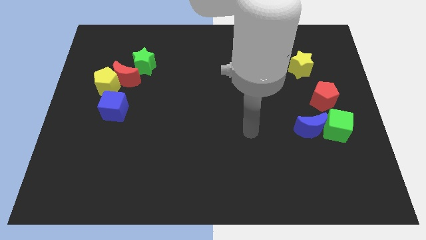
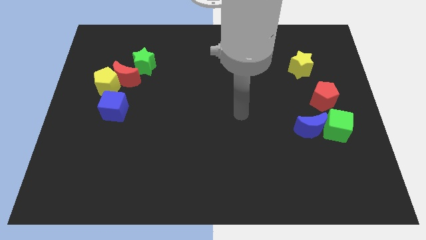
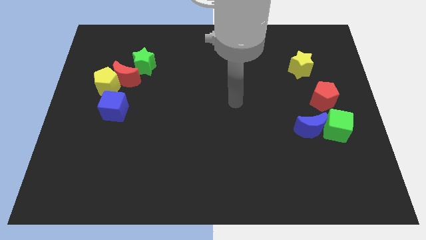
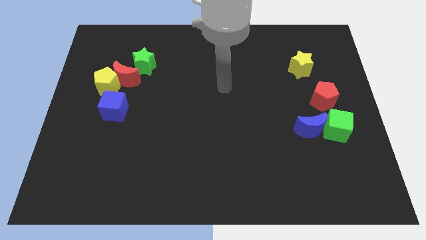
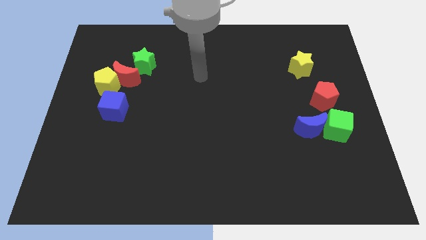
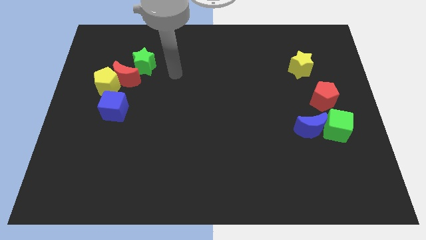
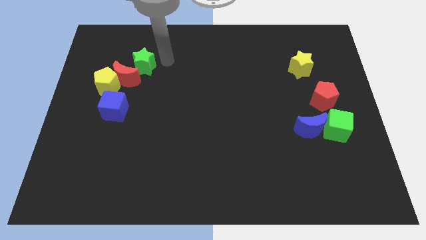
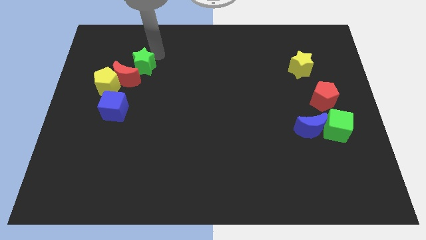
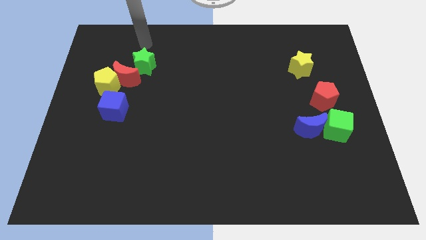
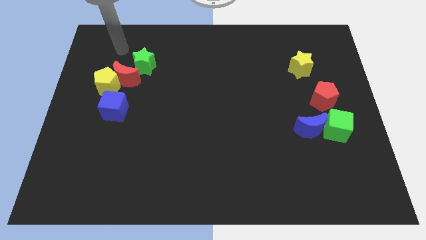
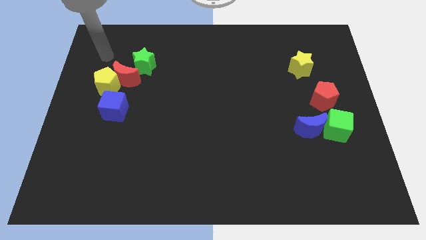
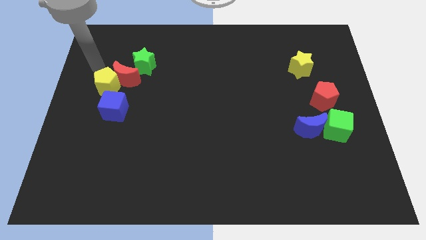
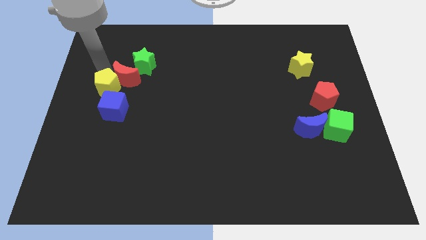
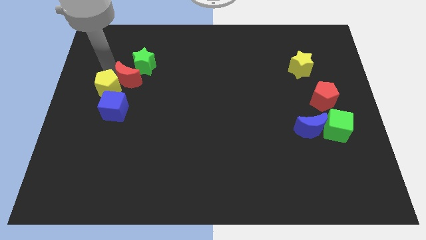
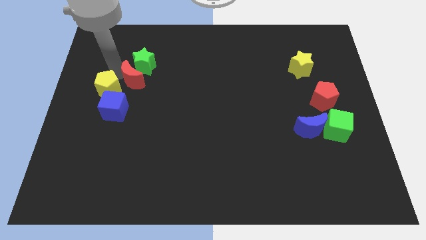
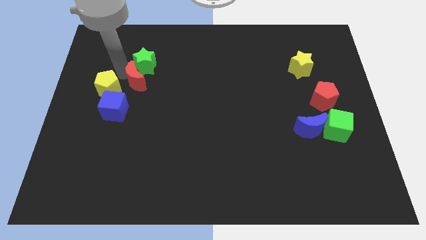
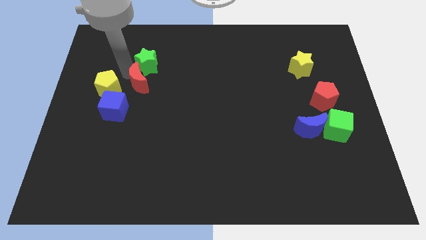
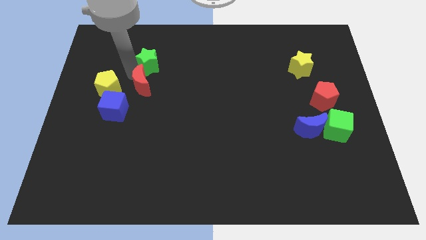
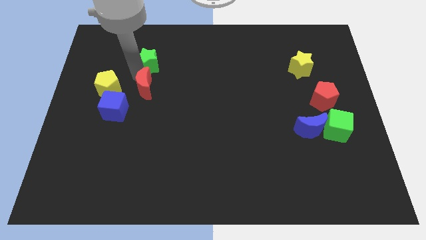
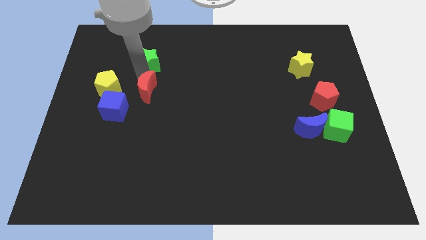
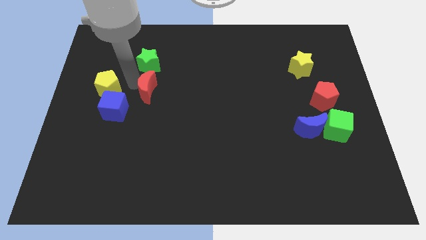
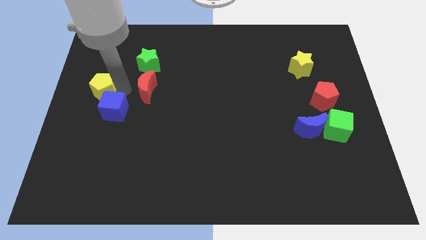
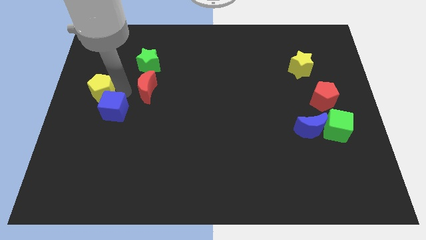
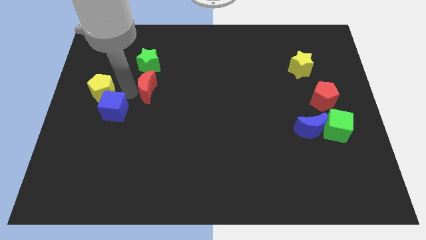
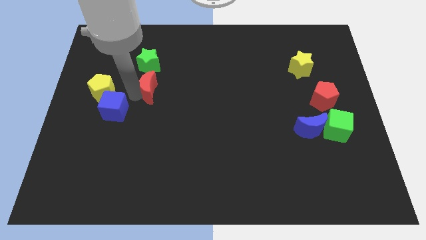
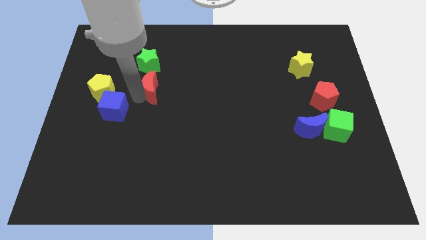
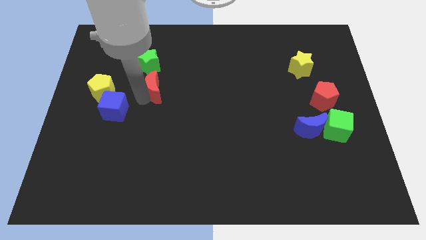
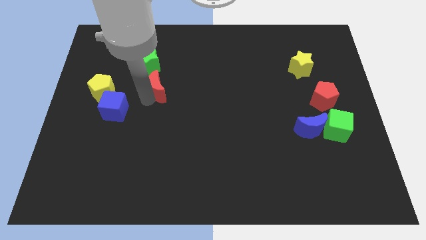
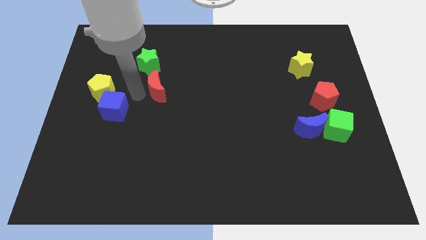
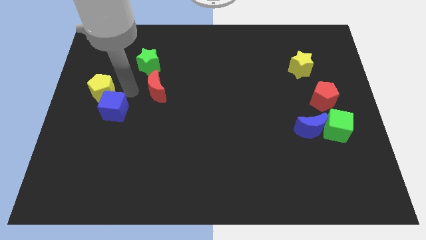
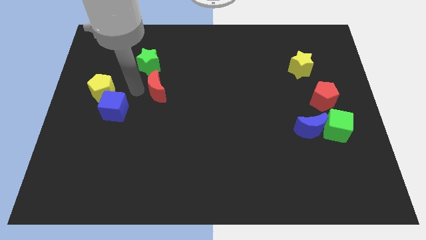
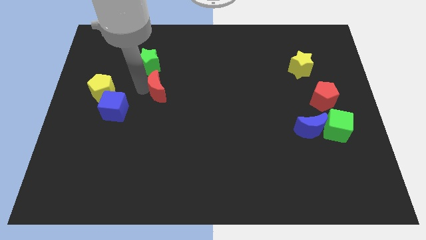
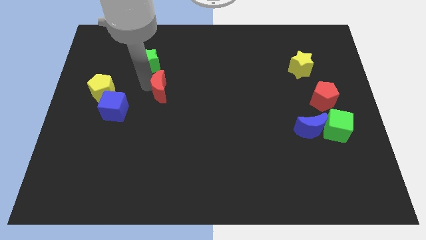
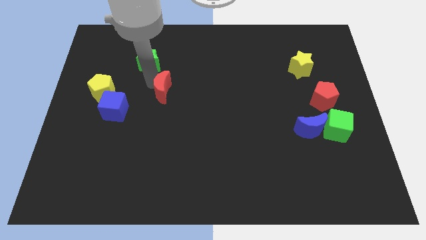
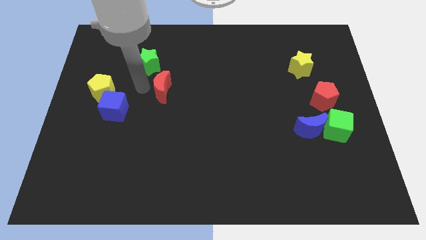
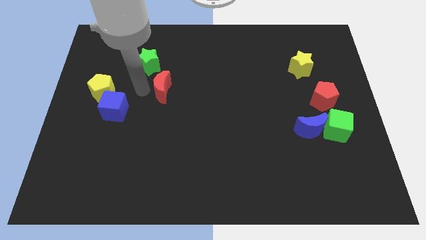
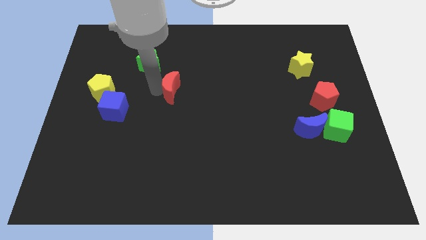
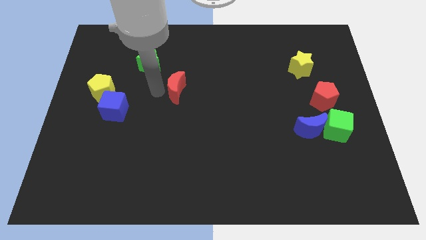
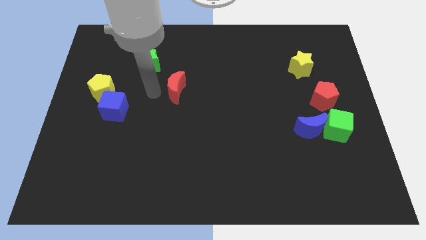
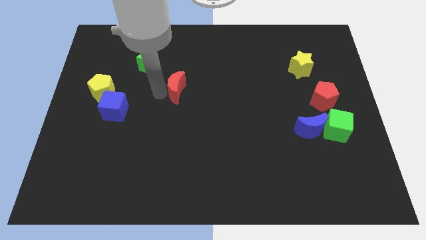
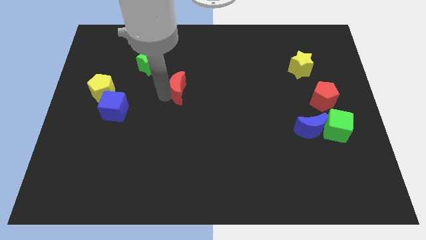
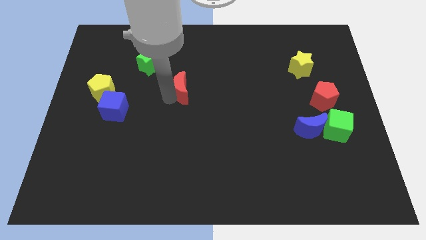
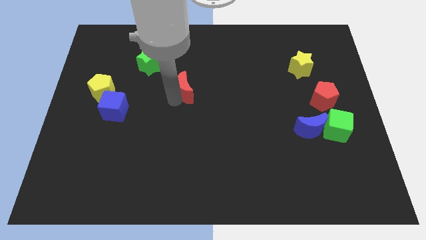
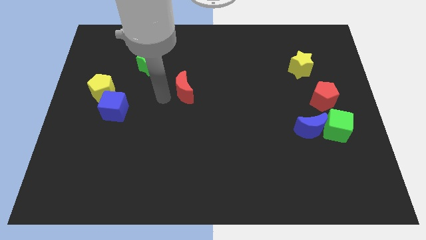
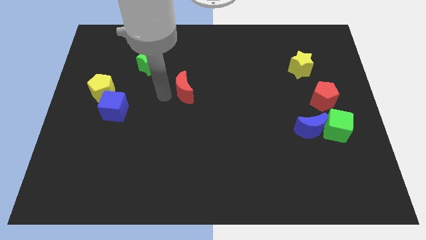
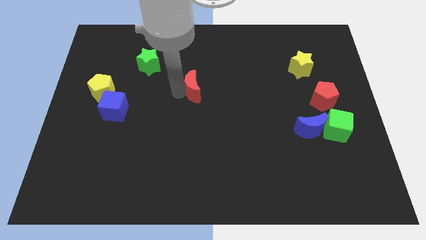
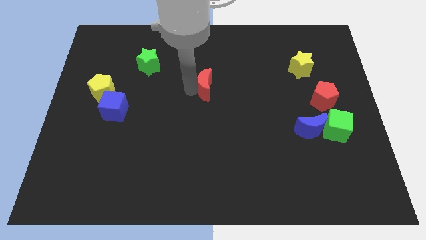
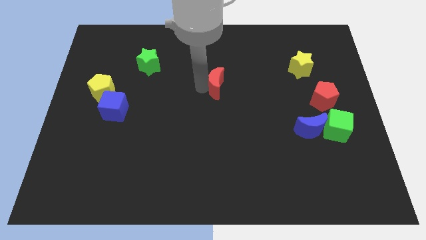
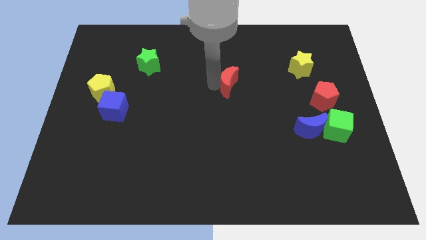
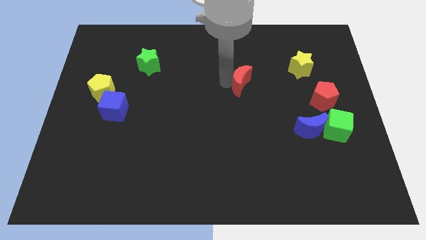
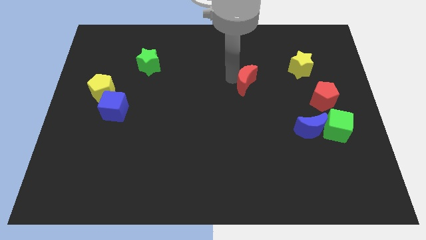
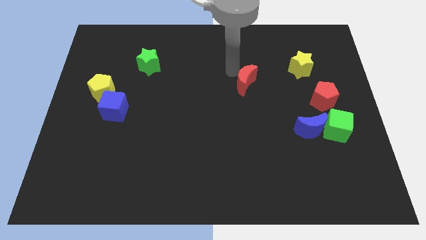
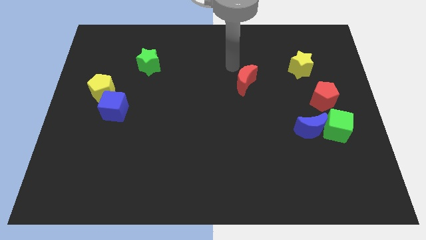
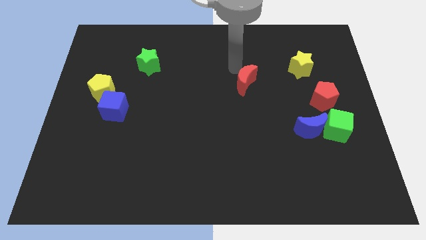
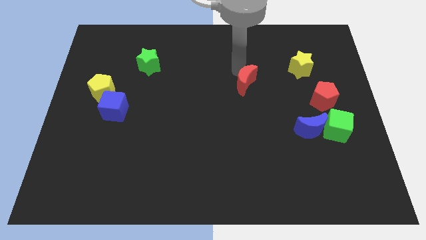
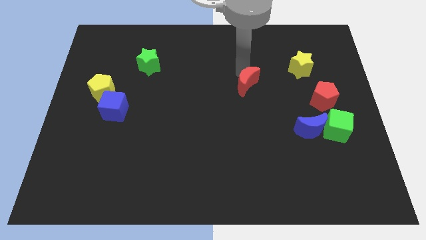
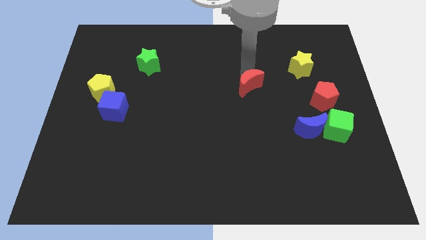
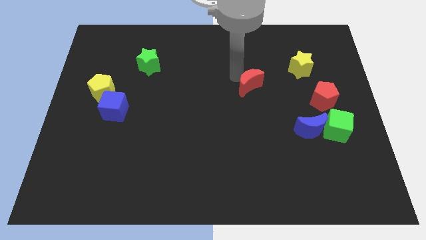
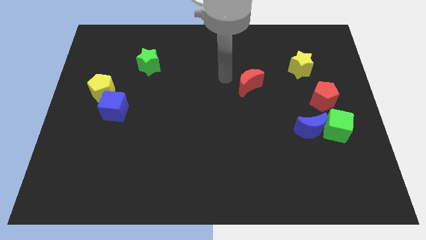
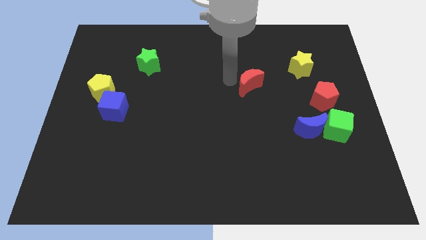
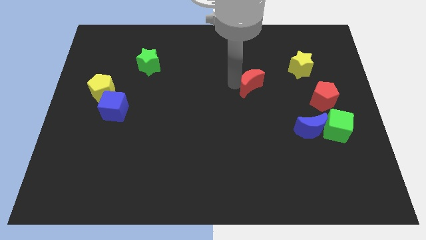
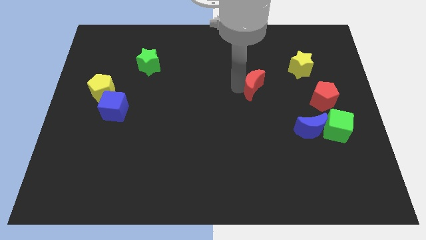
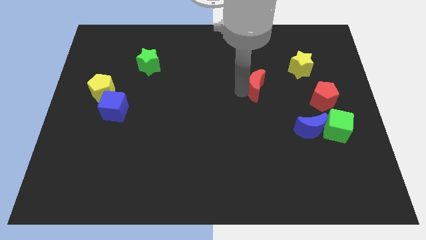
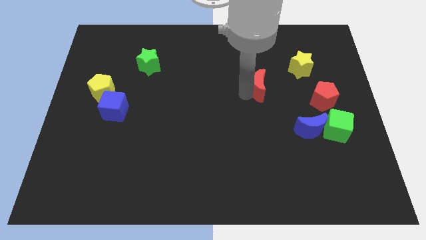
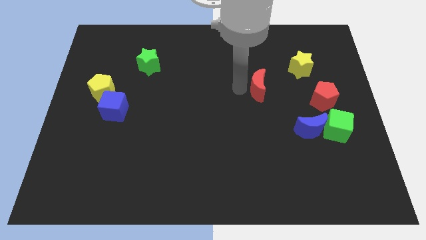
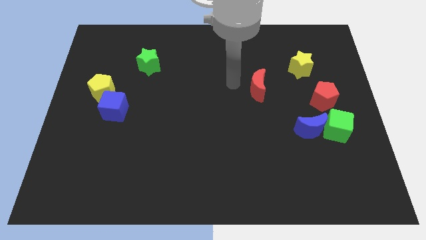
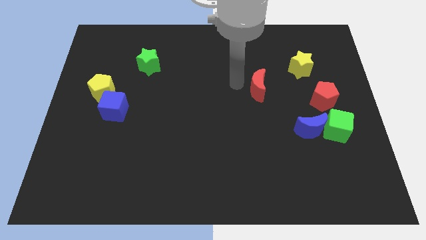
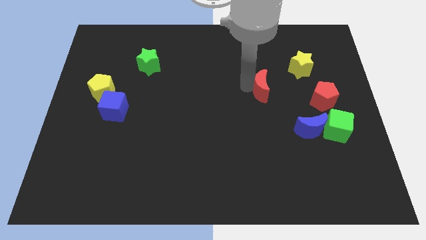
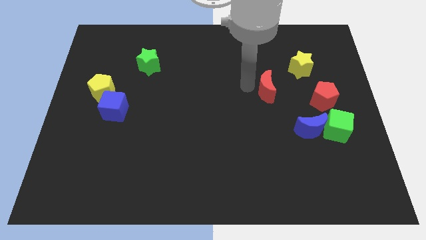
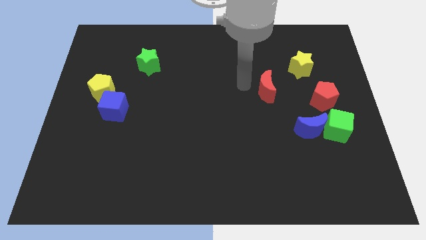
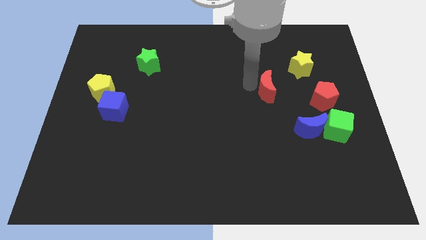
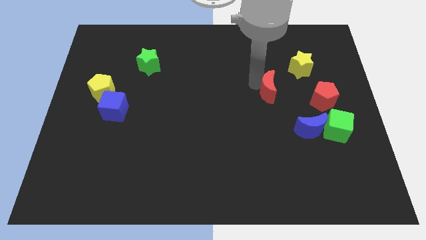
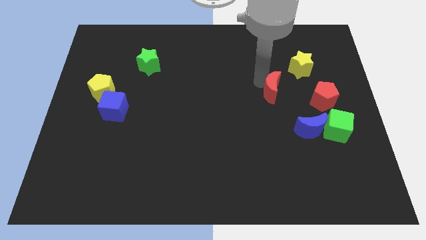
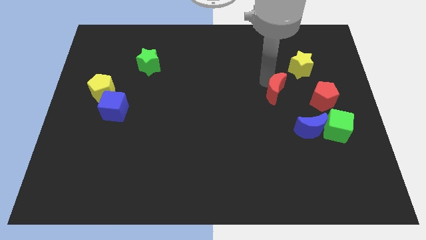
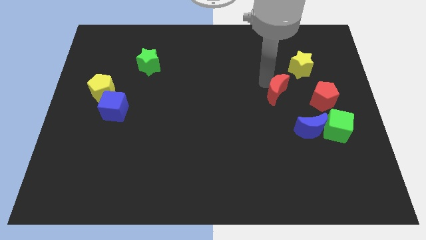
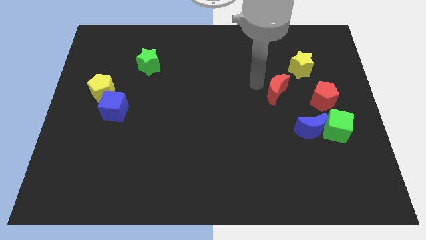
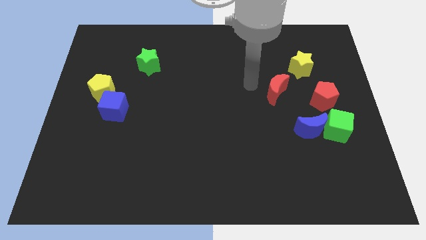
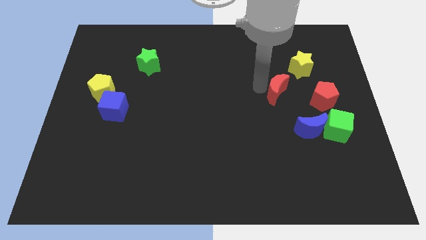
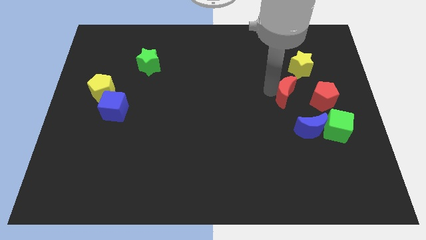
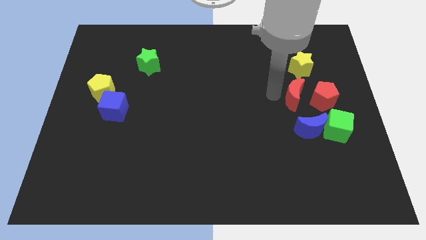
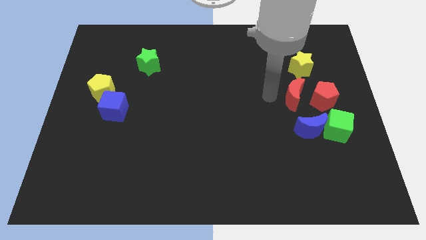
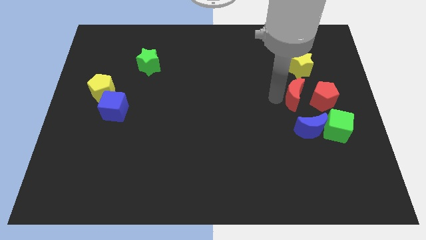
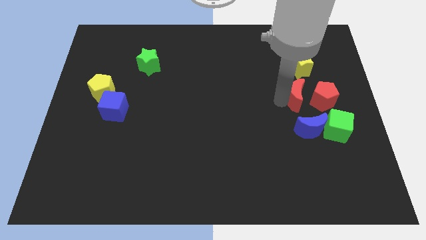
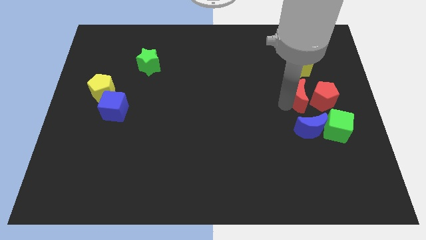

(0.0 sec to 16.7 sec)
slide the red moon close to the red pentagon
